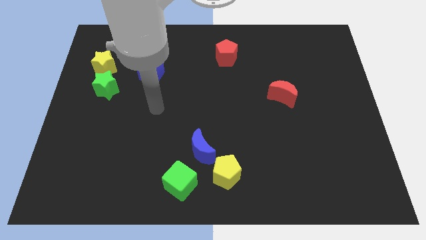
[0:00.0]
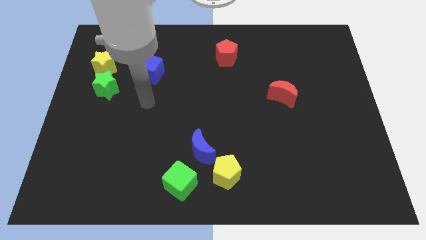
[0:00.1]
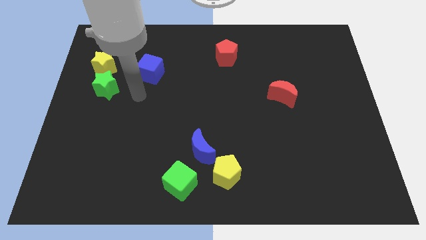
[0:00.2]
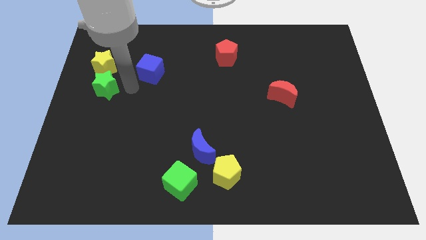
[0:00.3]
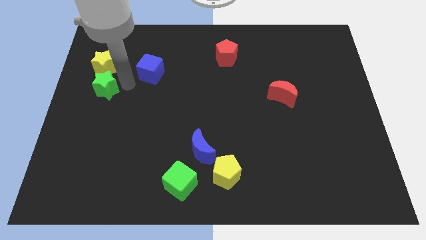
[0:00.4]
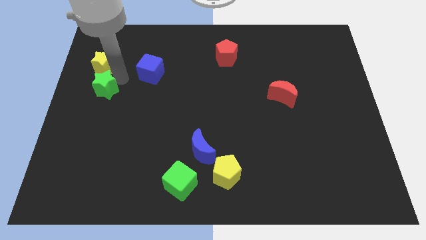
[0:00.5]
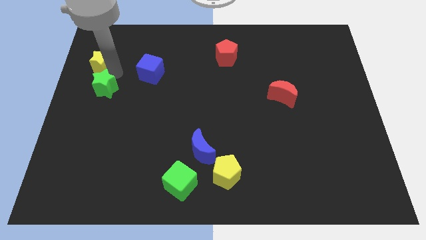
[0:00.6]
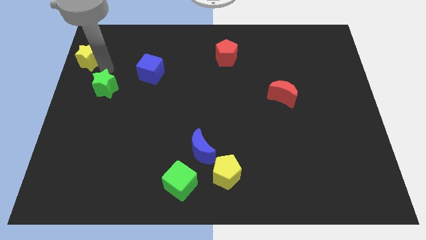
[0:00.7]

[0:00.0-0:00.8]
separate the green star from the yellow star

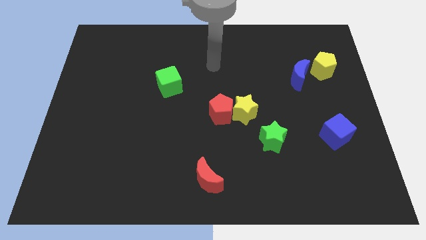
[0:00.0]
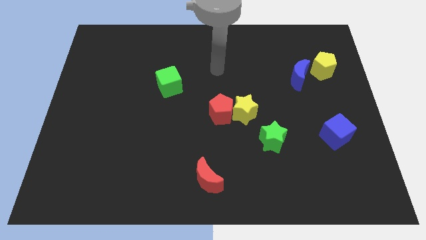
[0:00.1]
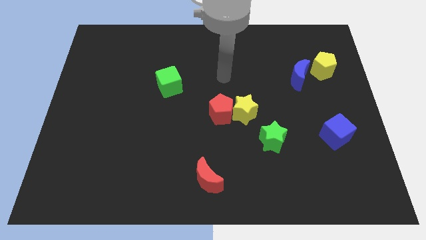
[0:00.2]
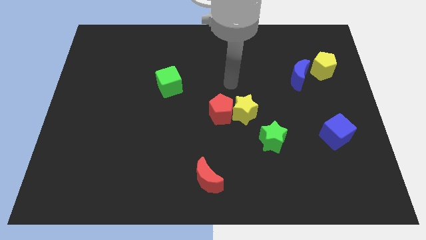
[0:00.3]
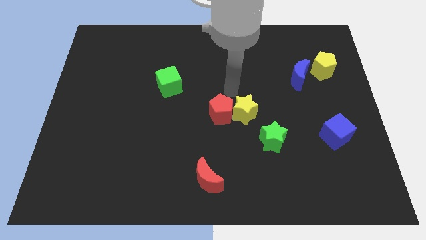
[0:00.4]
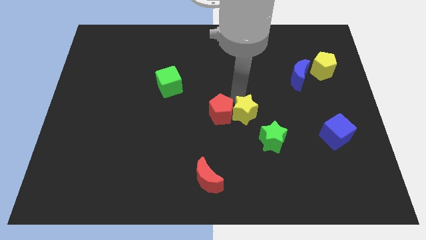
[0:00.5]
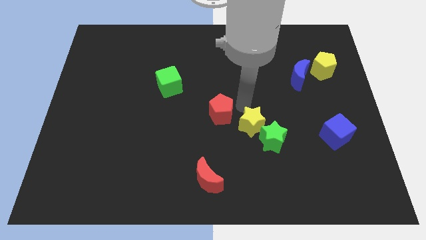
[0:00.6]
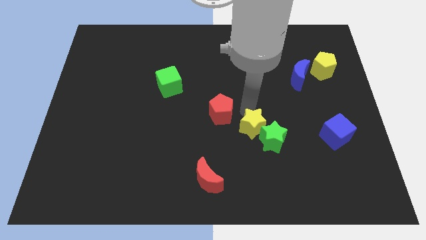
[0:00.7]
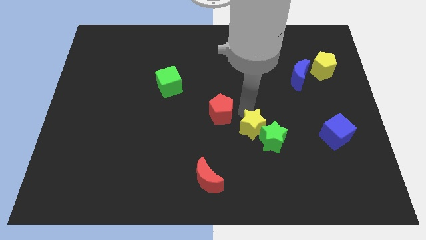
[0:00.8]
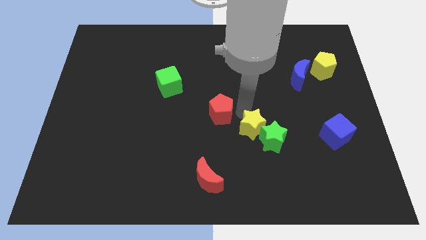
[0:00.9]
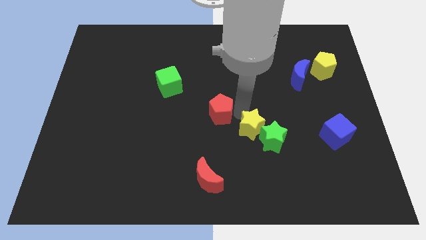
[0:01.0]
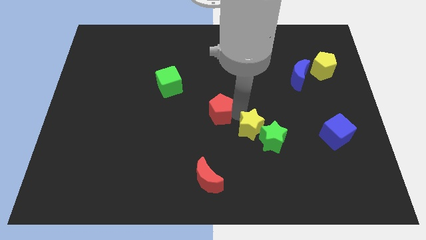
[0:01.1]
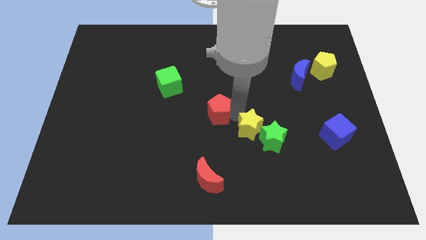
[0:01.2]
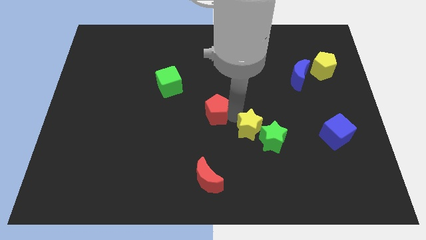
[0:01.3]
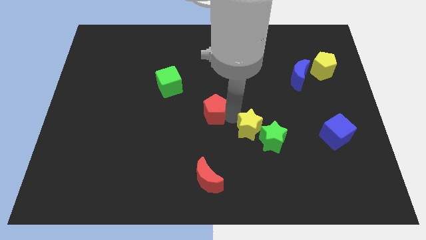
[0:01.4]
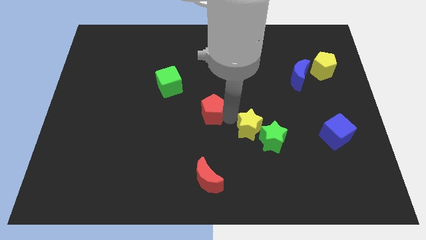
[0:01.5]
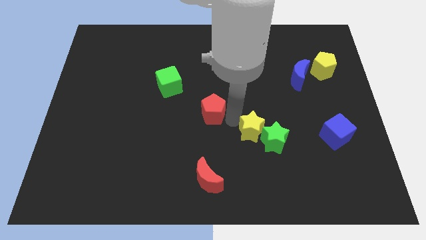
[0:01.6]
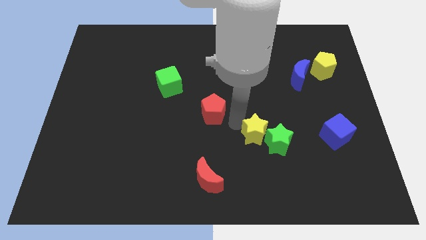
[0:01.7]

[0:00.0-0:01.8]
pull the red pentagon apart from the yellow star

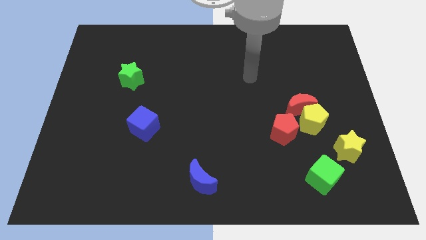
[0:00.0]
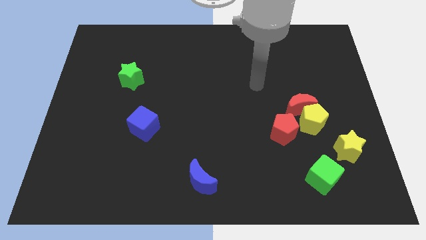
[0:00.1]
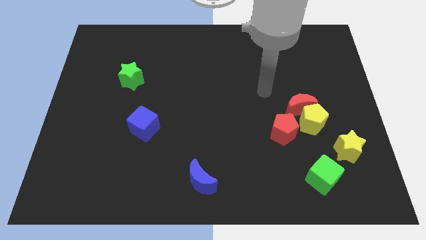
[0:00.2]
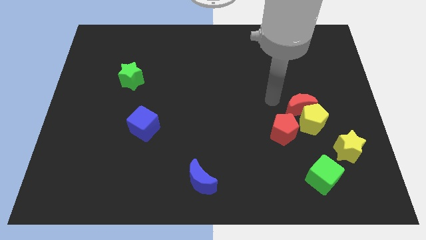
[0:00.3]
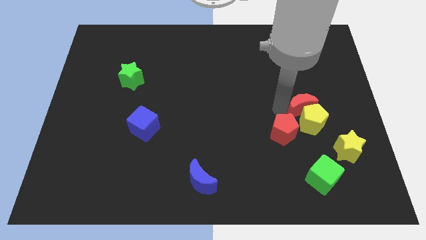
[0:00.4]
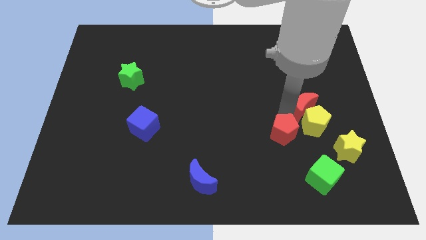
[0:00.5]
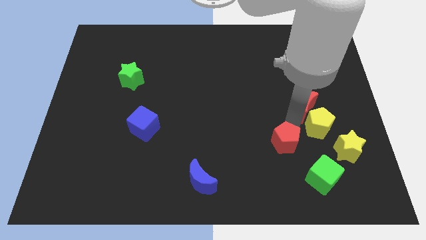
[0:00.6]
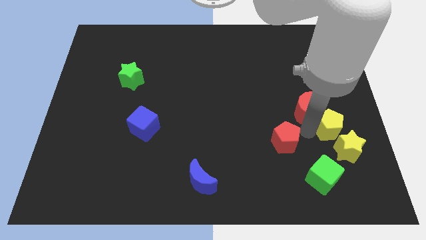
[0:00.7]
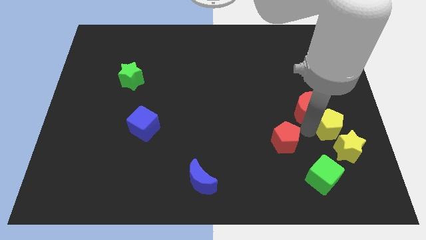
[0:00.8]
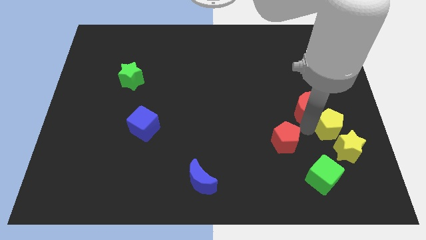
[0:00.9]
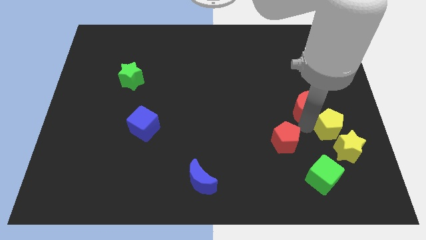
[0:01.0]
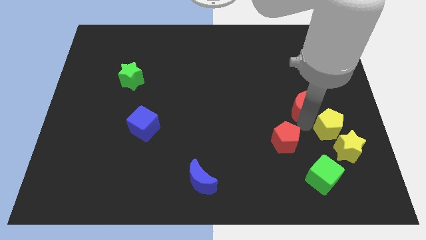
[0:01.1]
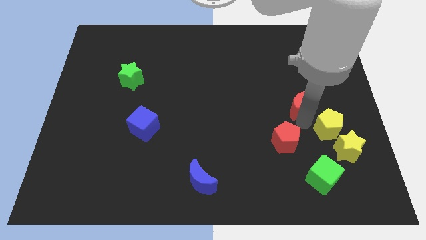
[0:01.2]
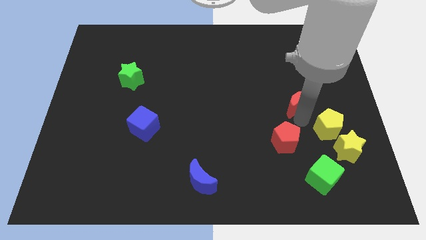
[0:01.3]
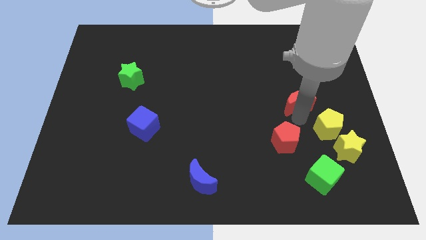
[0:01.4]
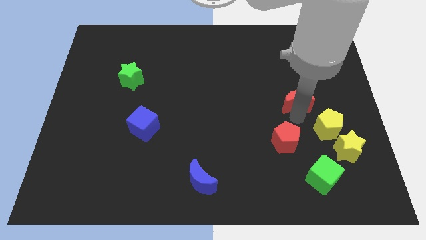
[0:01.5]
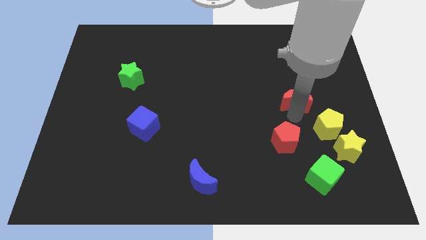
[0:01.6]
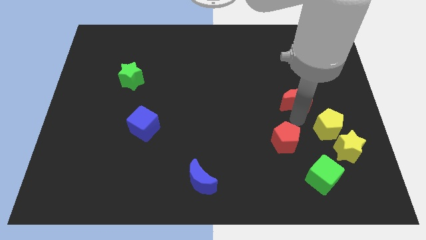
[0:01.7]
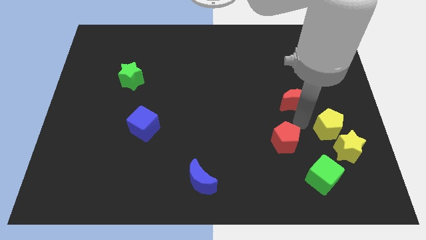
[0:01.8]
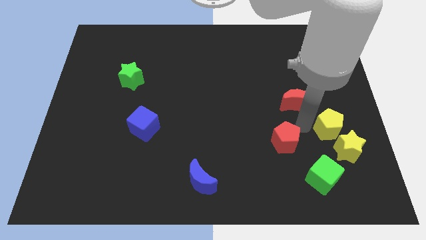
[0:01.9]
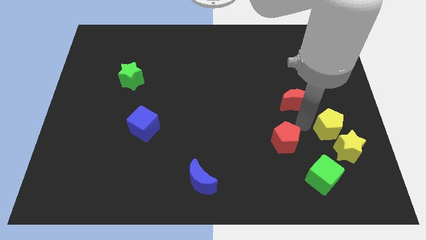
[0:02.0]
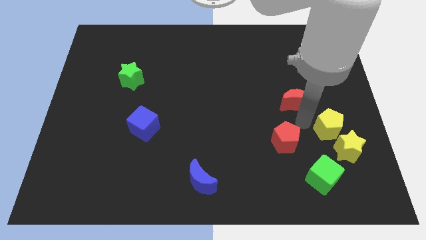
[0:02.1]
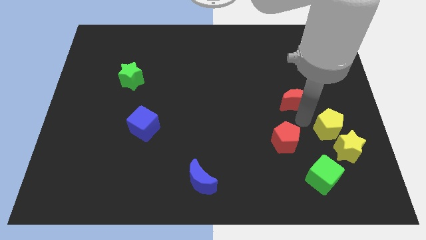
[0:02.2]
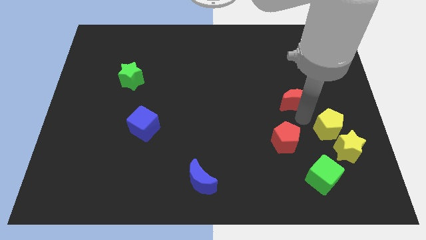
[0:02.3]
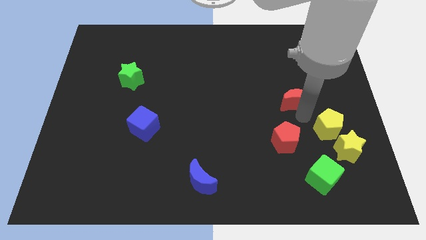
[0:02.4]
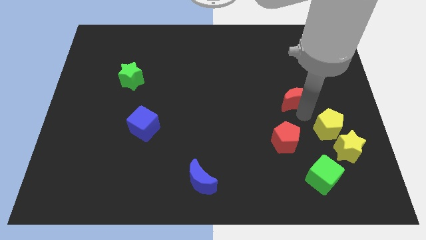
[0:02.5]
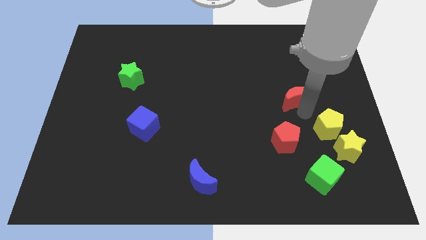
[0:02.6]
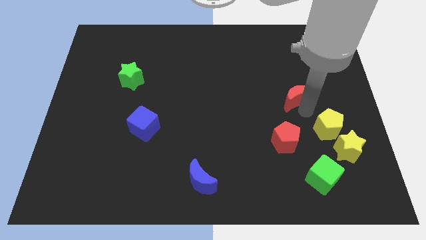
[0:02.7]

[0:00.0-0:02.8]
move the red moon away from the yellow pentagon and red pentagon

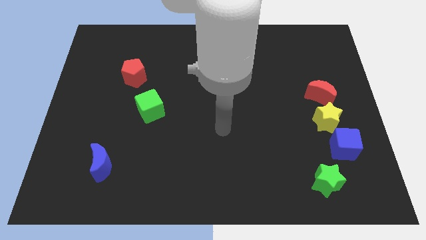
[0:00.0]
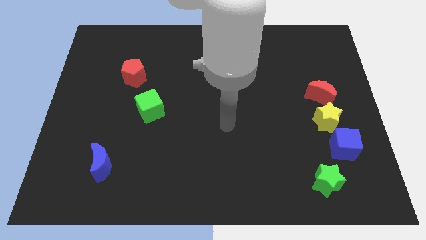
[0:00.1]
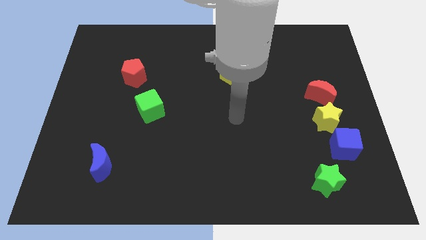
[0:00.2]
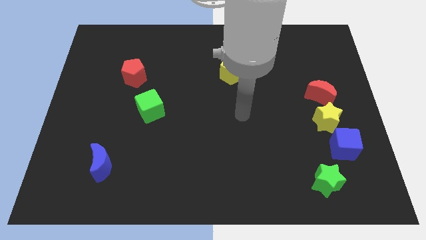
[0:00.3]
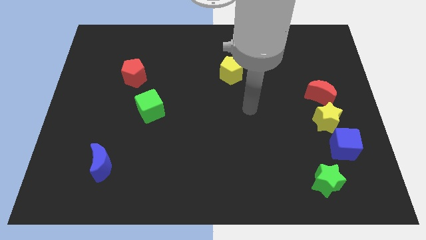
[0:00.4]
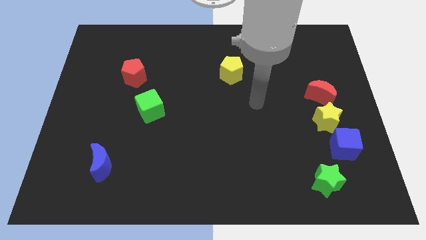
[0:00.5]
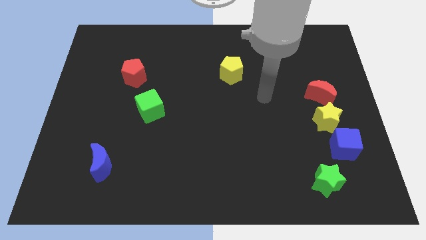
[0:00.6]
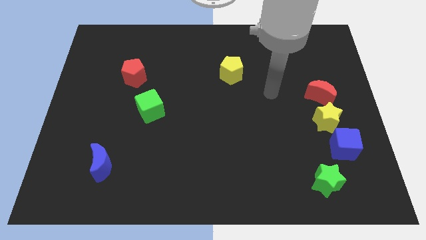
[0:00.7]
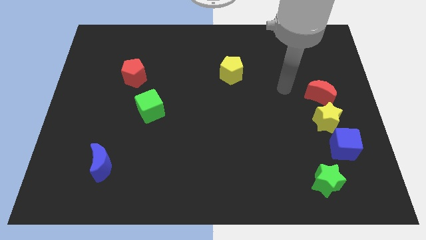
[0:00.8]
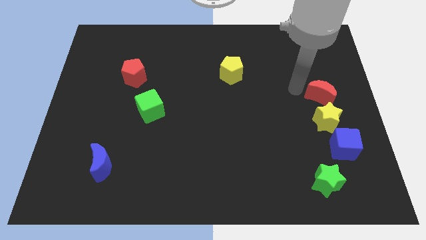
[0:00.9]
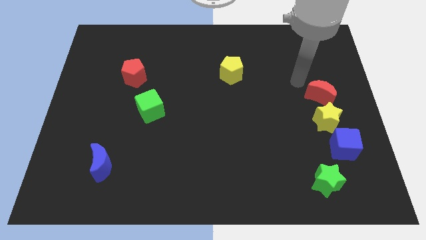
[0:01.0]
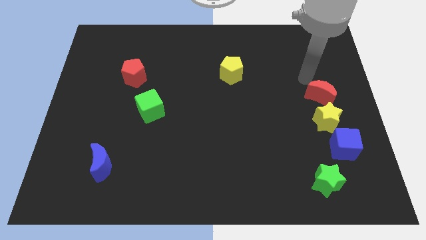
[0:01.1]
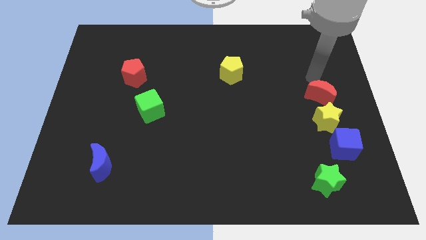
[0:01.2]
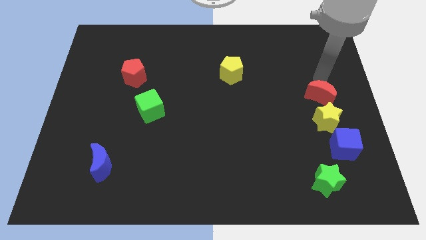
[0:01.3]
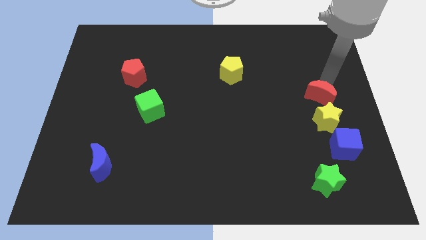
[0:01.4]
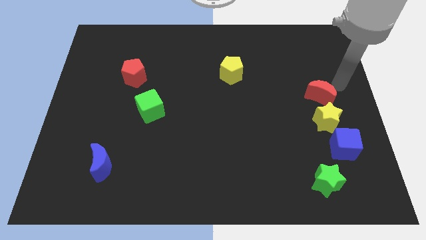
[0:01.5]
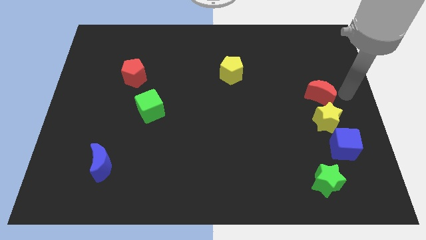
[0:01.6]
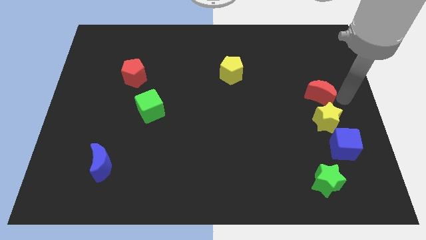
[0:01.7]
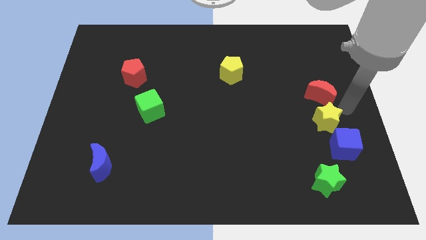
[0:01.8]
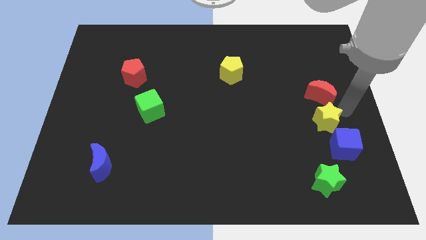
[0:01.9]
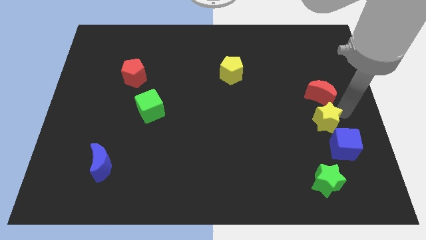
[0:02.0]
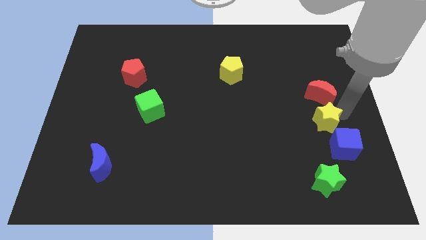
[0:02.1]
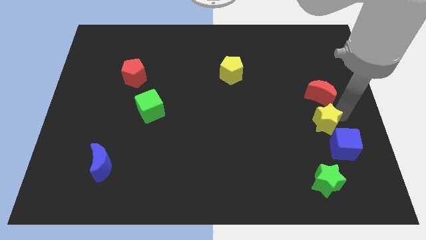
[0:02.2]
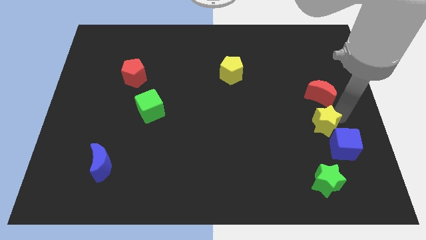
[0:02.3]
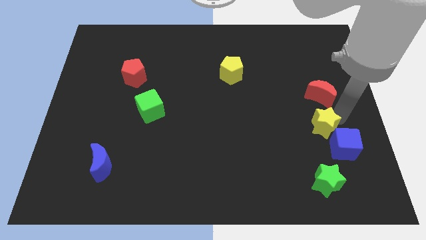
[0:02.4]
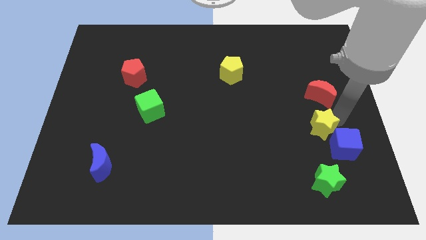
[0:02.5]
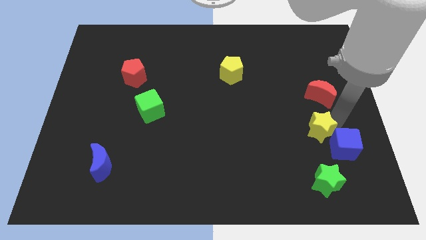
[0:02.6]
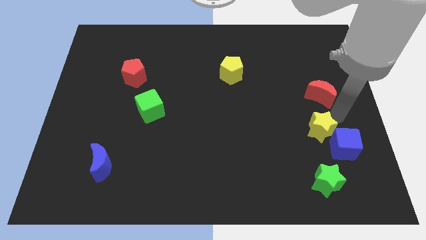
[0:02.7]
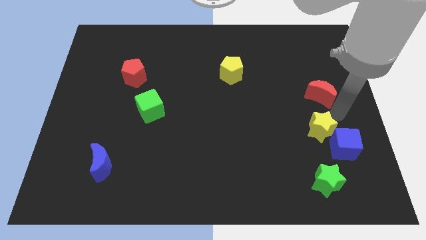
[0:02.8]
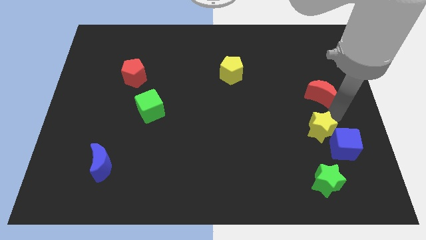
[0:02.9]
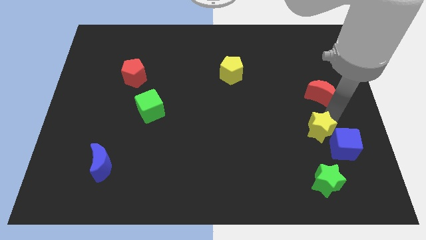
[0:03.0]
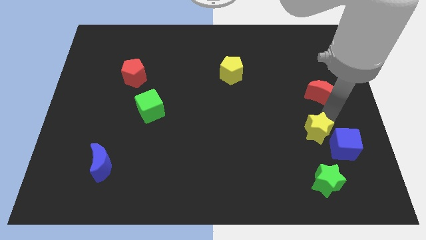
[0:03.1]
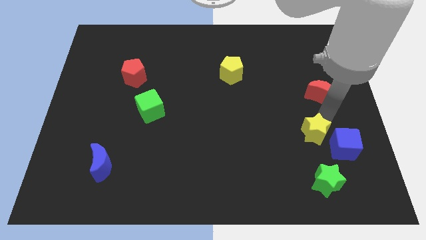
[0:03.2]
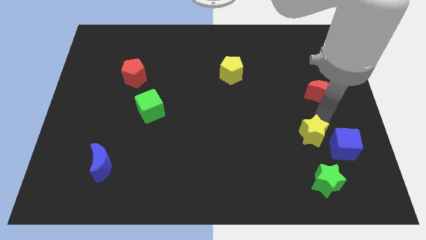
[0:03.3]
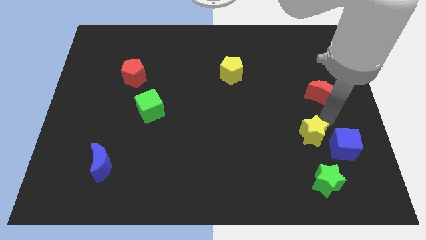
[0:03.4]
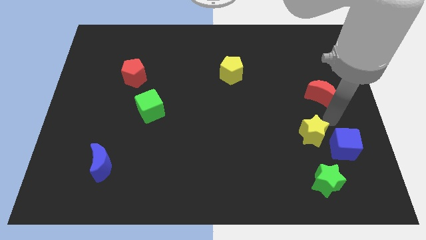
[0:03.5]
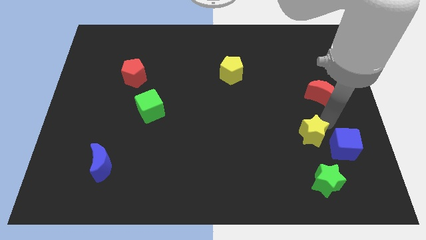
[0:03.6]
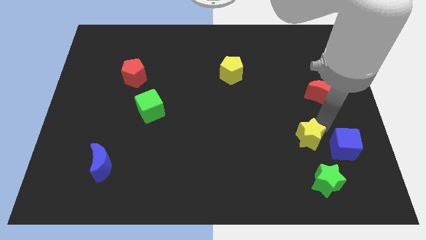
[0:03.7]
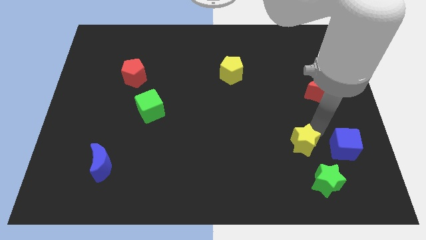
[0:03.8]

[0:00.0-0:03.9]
separate the yellow star from the blue cube and red moon
